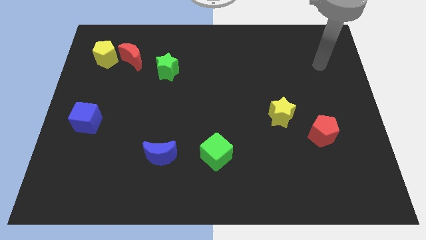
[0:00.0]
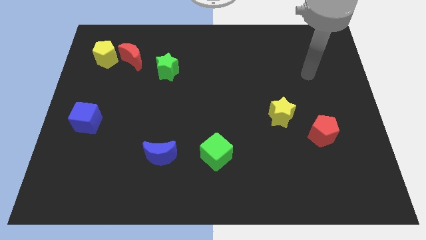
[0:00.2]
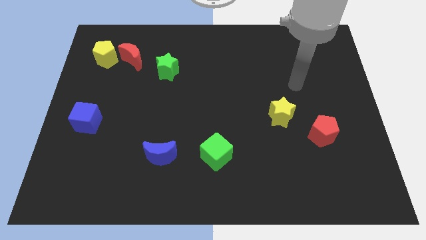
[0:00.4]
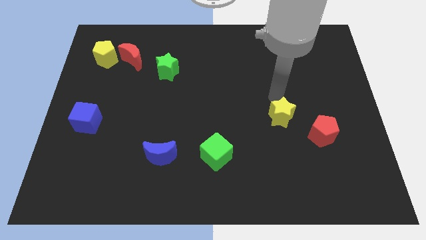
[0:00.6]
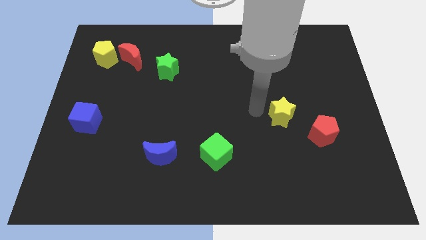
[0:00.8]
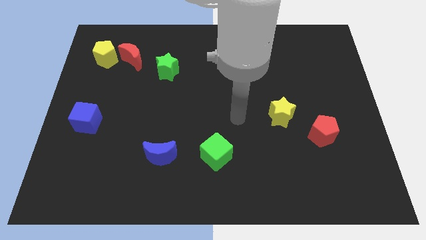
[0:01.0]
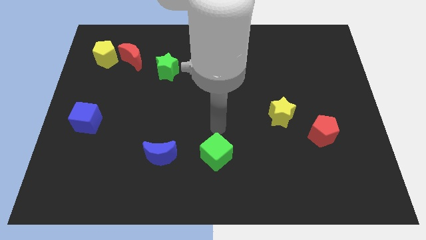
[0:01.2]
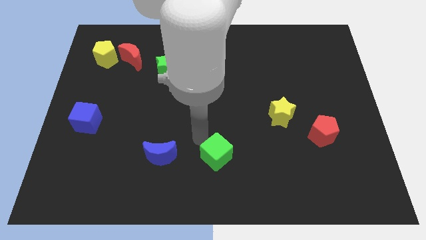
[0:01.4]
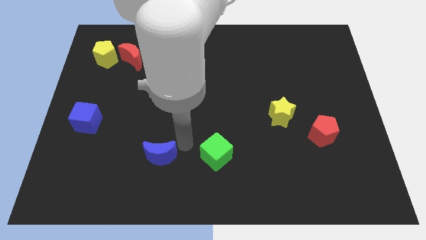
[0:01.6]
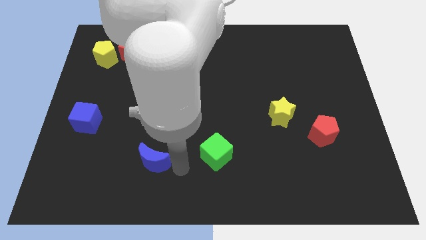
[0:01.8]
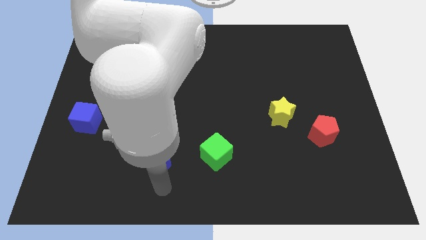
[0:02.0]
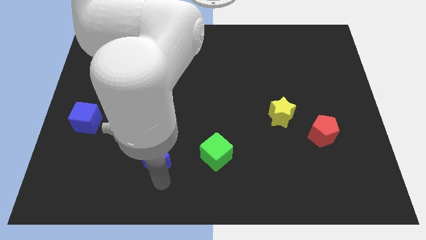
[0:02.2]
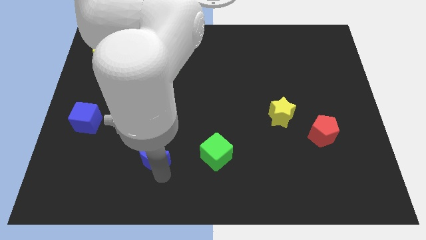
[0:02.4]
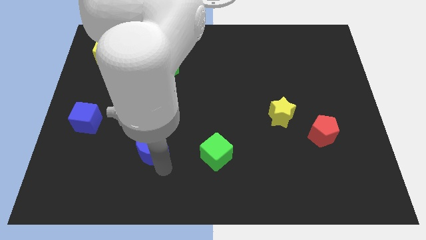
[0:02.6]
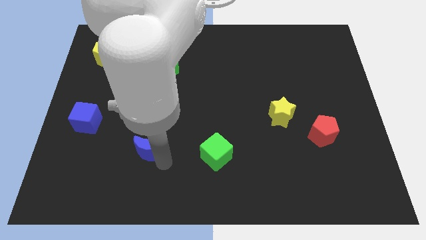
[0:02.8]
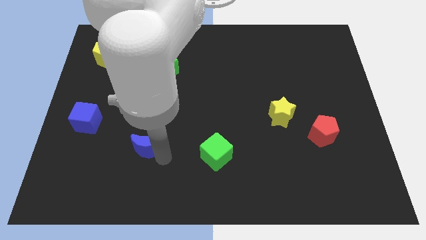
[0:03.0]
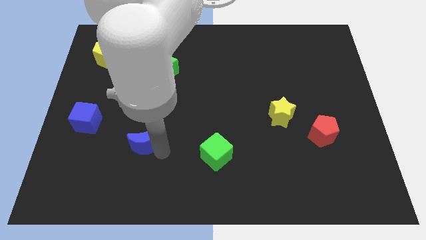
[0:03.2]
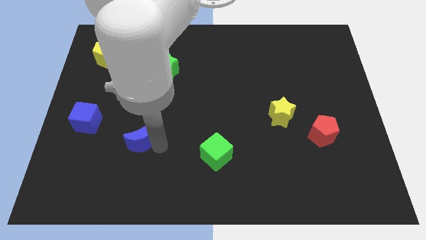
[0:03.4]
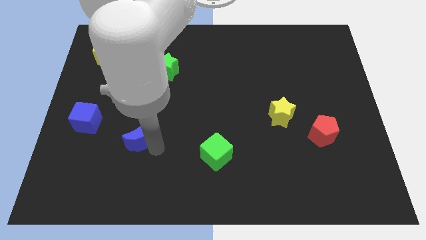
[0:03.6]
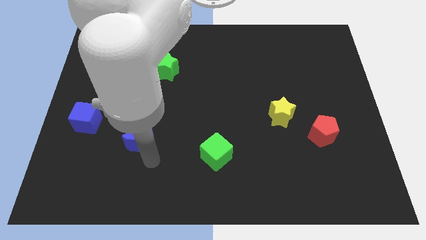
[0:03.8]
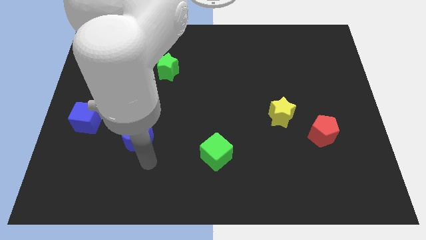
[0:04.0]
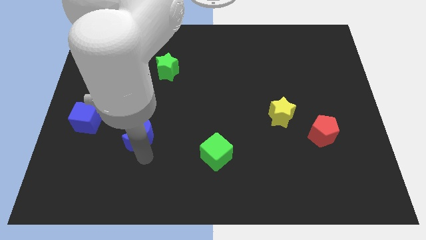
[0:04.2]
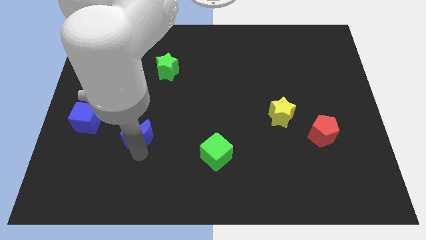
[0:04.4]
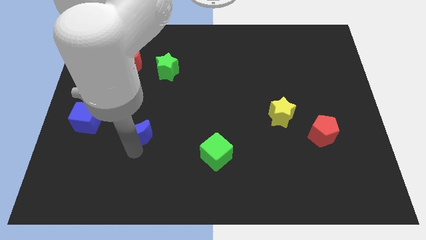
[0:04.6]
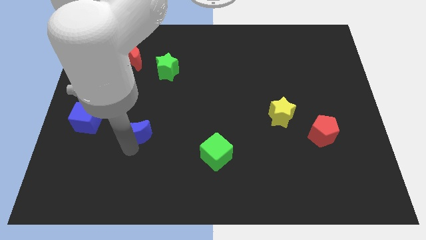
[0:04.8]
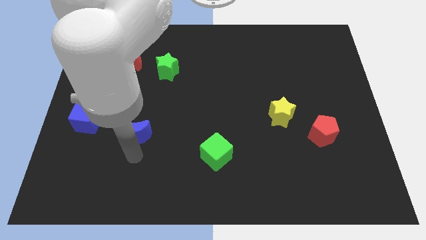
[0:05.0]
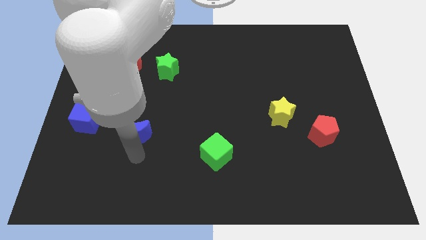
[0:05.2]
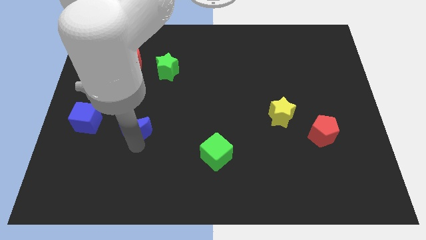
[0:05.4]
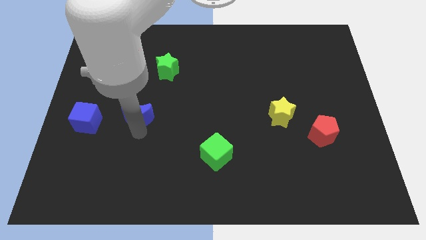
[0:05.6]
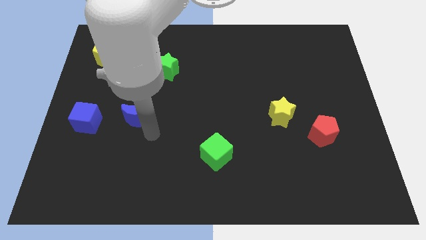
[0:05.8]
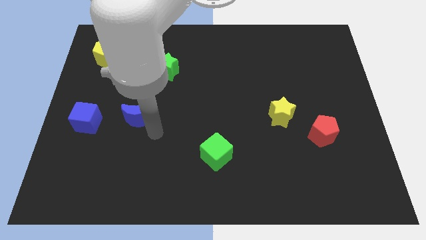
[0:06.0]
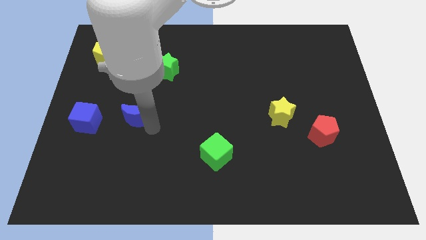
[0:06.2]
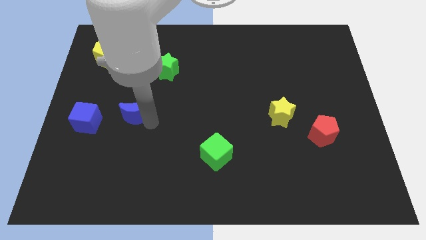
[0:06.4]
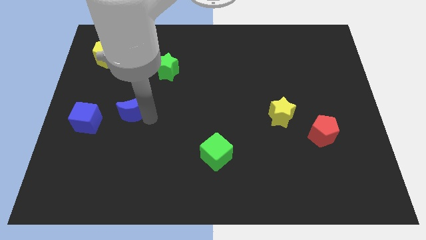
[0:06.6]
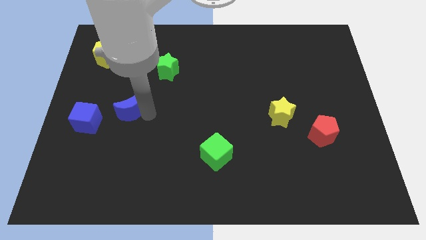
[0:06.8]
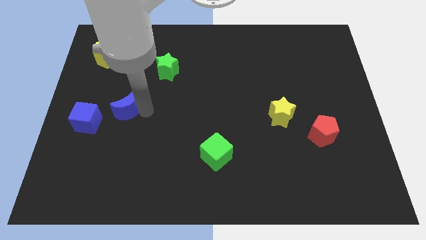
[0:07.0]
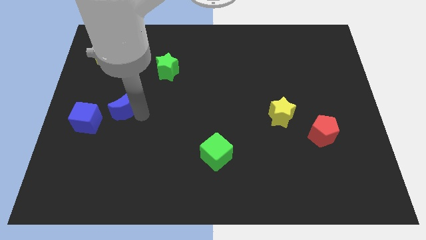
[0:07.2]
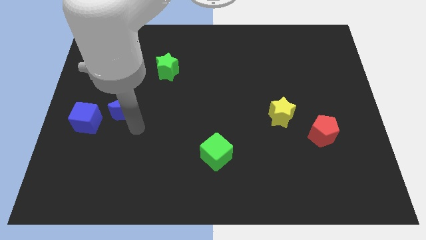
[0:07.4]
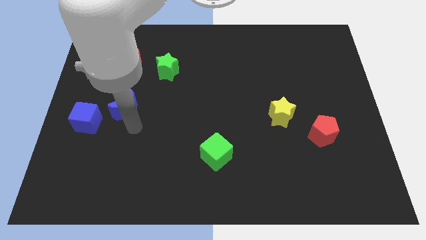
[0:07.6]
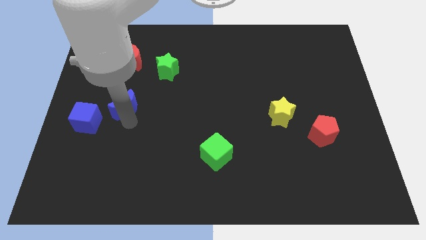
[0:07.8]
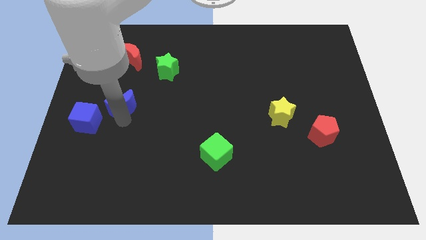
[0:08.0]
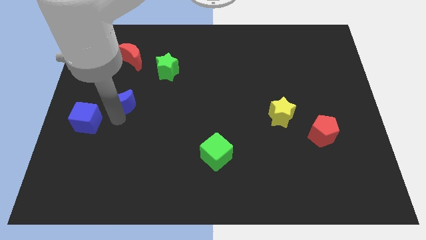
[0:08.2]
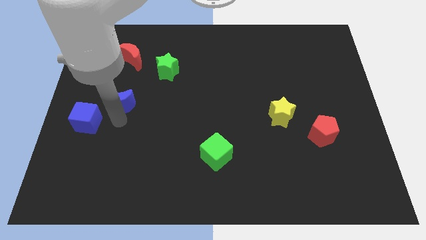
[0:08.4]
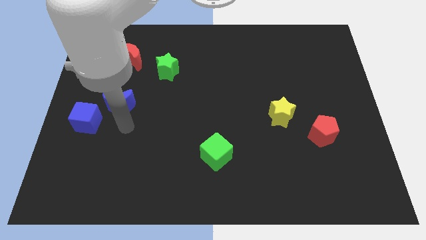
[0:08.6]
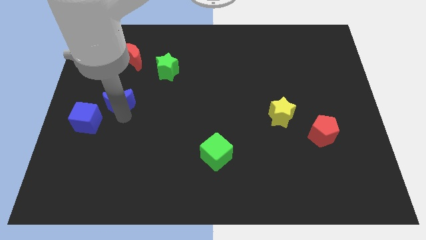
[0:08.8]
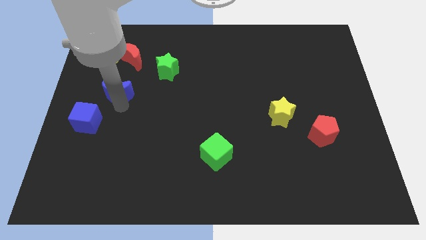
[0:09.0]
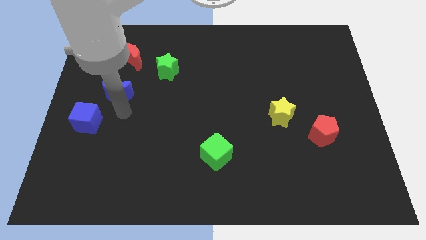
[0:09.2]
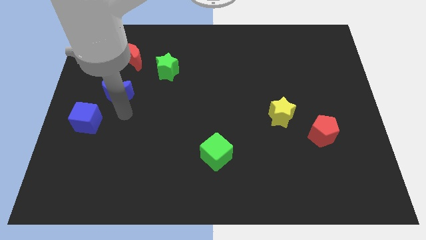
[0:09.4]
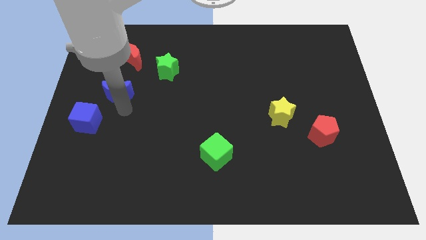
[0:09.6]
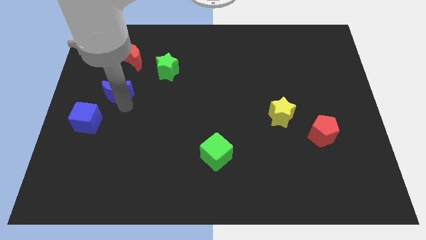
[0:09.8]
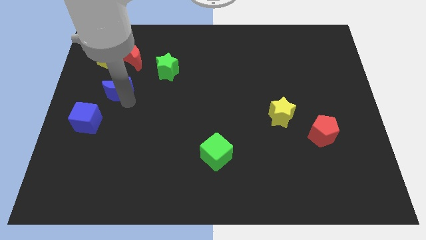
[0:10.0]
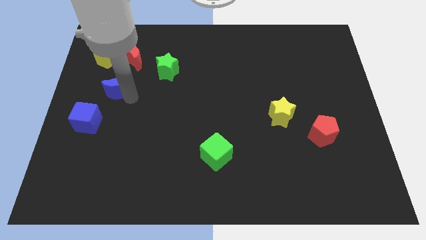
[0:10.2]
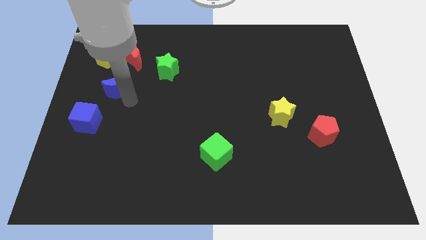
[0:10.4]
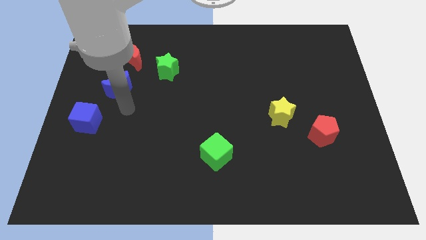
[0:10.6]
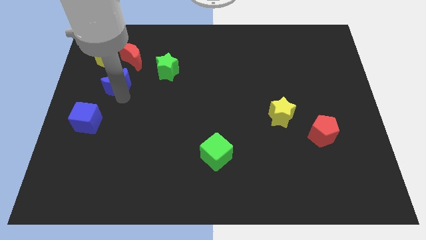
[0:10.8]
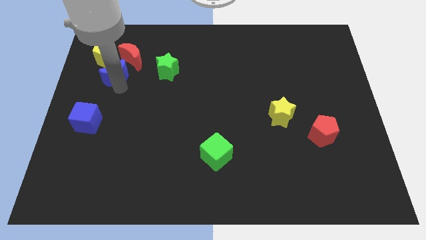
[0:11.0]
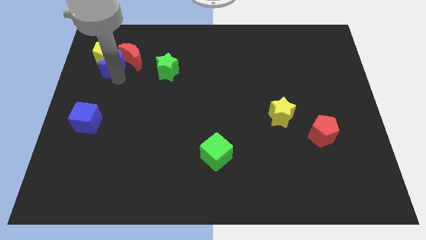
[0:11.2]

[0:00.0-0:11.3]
move the blue moon close to the yellow pentagon
